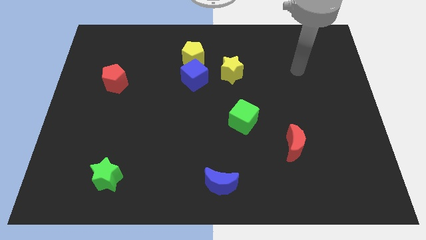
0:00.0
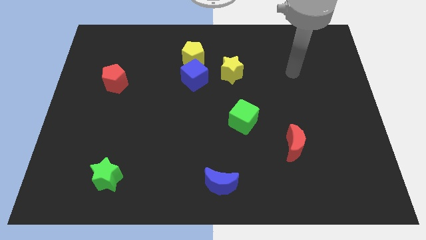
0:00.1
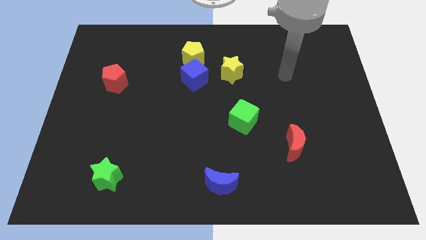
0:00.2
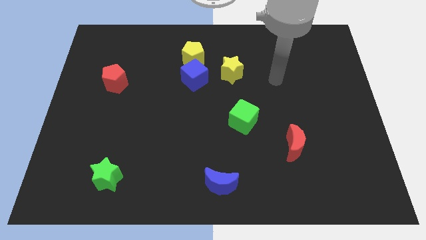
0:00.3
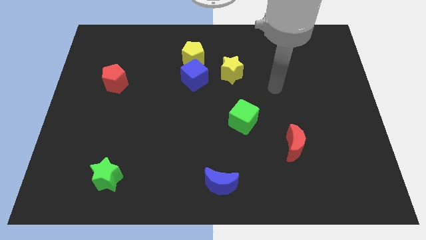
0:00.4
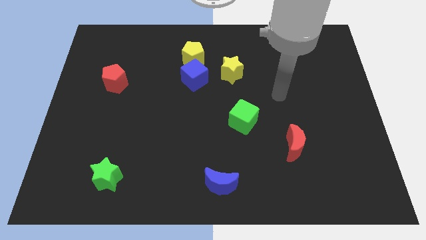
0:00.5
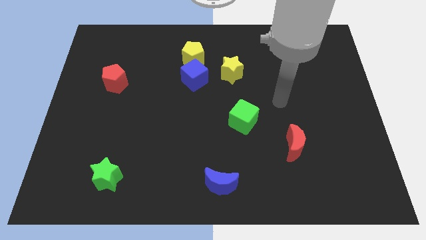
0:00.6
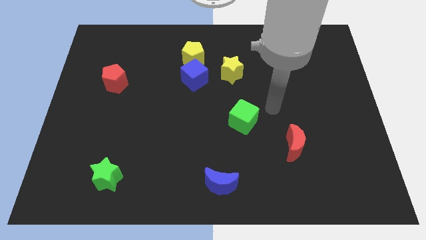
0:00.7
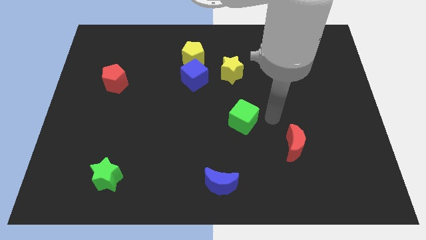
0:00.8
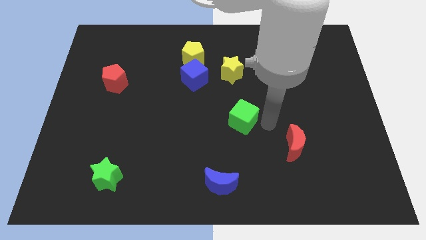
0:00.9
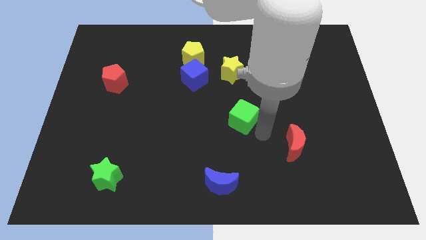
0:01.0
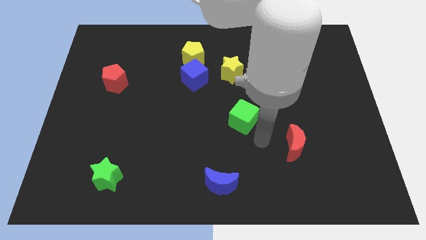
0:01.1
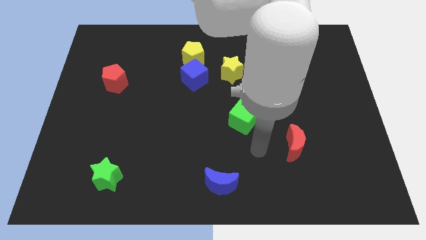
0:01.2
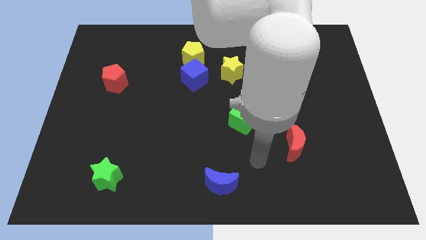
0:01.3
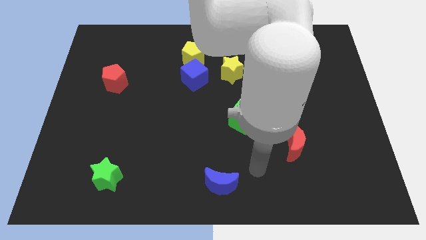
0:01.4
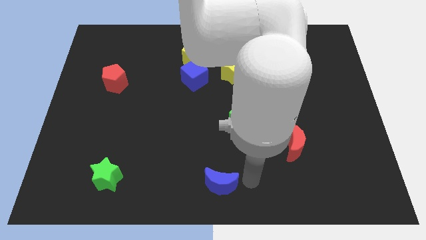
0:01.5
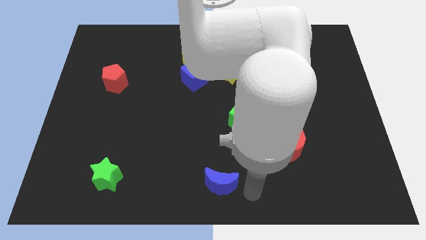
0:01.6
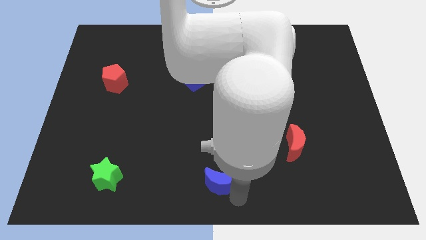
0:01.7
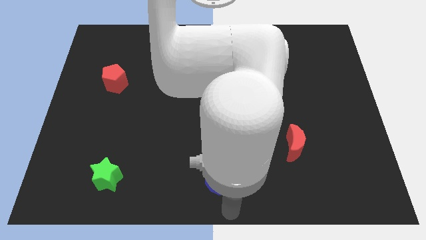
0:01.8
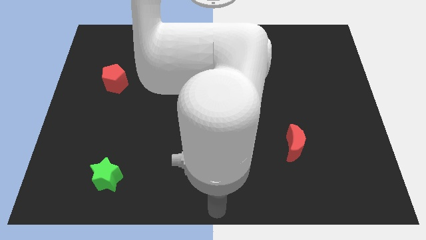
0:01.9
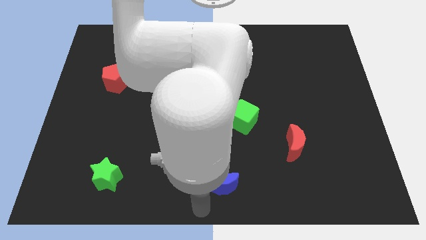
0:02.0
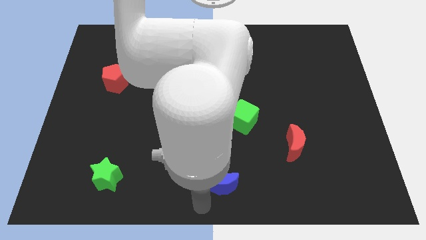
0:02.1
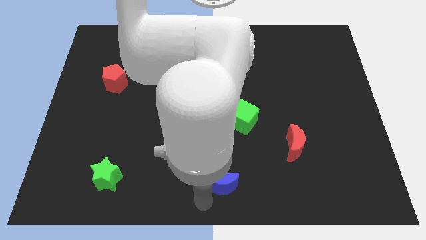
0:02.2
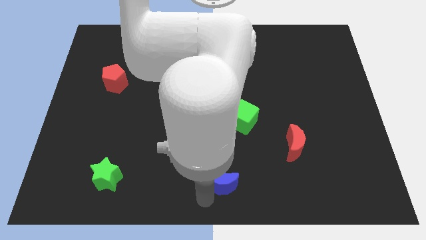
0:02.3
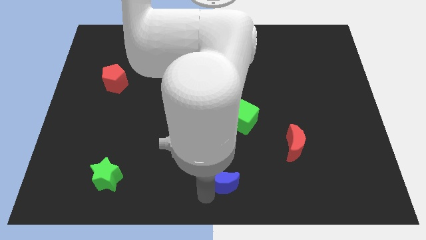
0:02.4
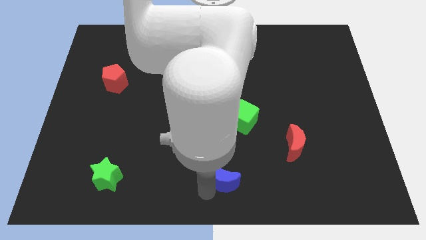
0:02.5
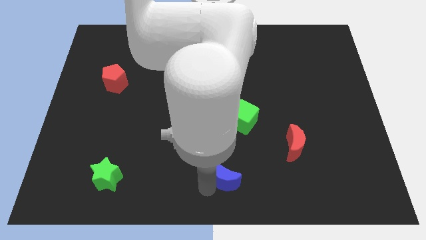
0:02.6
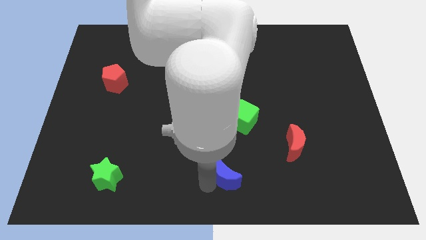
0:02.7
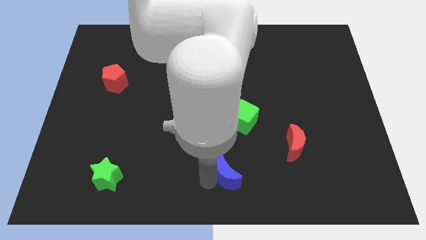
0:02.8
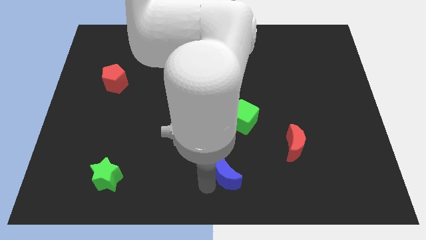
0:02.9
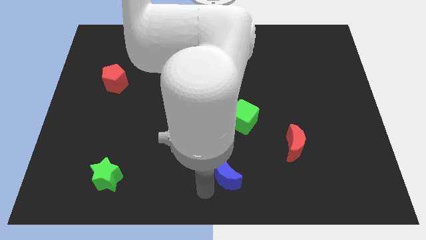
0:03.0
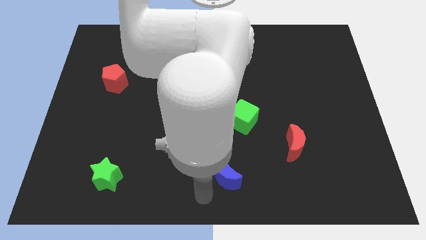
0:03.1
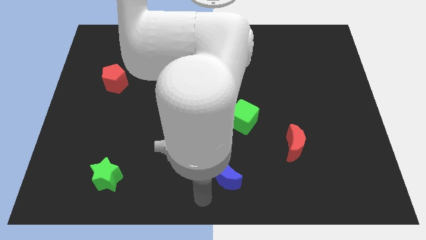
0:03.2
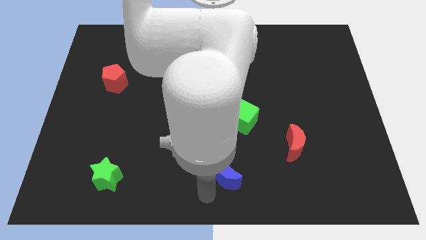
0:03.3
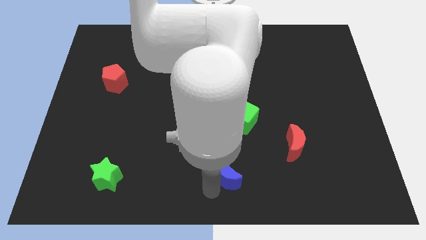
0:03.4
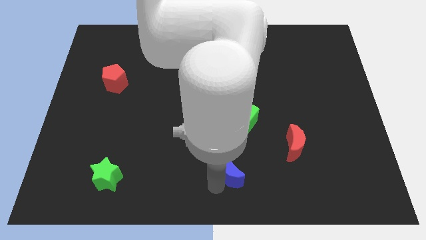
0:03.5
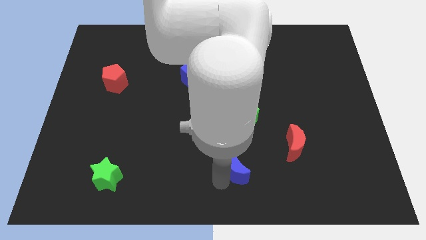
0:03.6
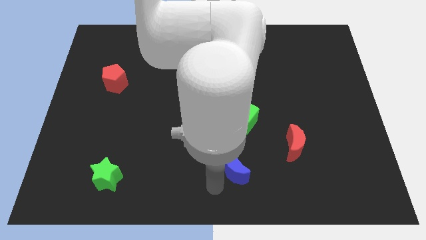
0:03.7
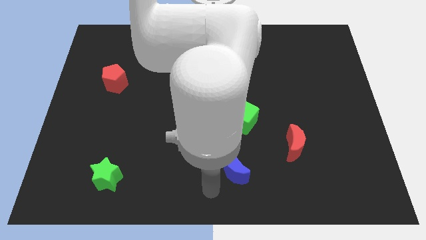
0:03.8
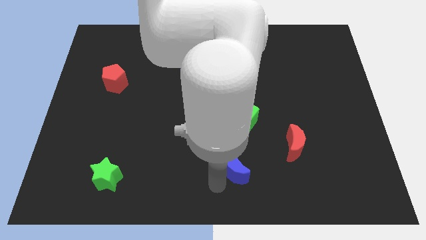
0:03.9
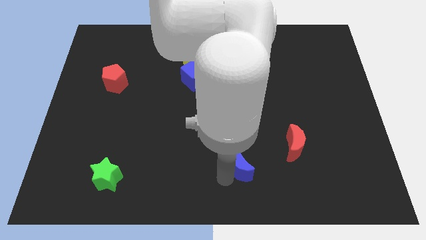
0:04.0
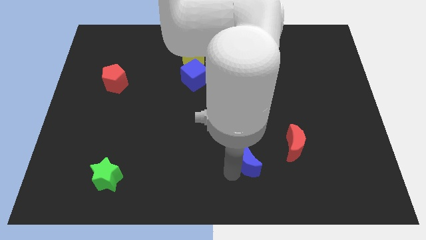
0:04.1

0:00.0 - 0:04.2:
slightly move the blue moon up and right

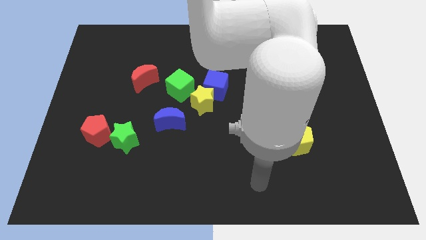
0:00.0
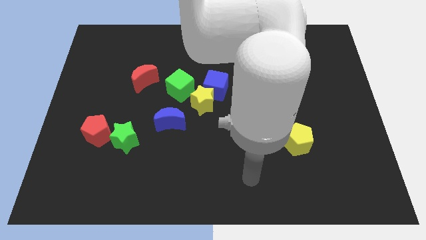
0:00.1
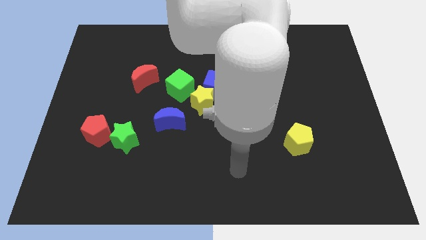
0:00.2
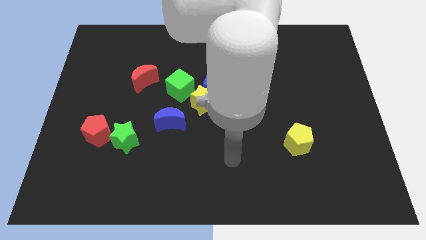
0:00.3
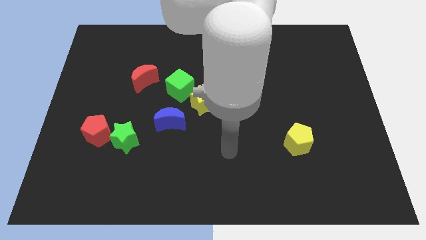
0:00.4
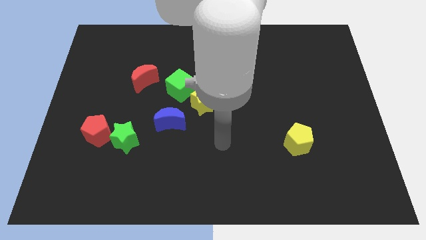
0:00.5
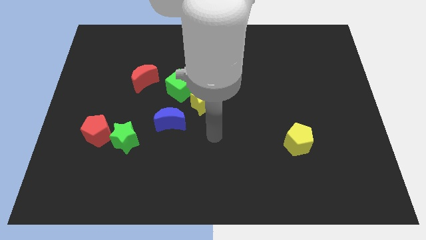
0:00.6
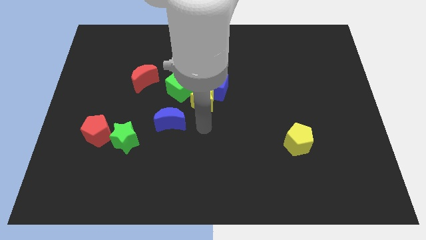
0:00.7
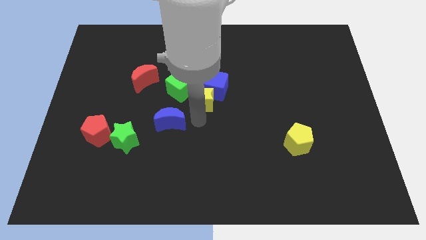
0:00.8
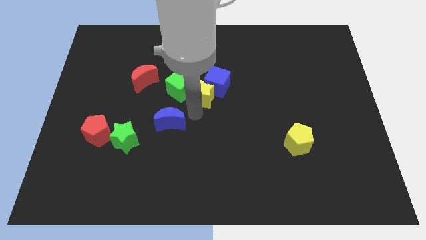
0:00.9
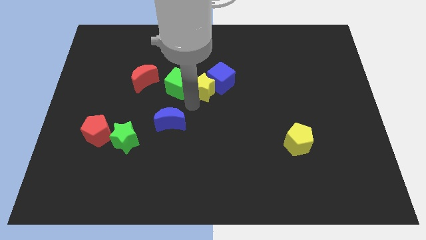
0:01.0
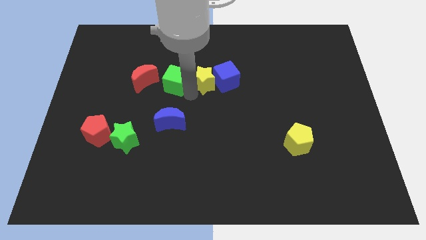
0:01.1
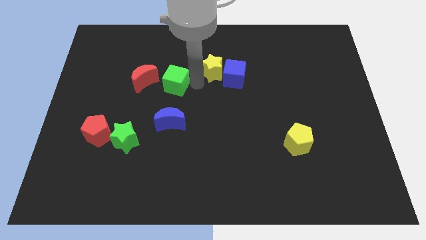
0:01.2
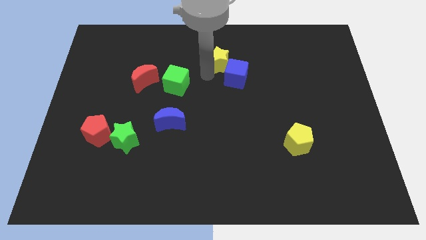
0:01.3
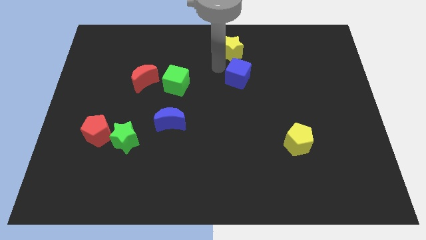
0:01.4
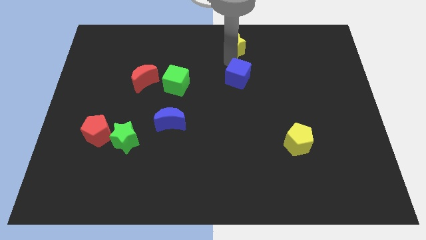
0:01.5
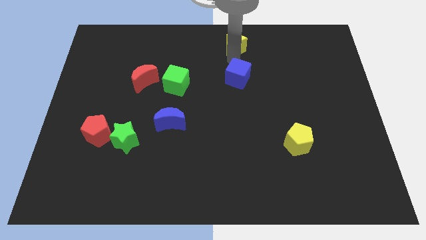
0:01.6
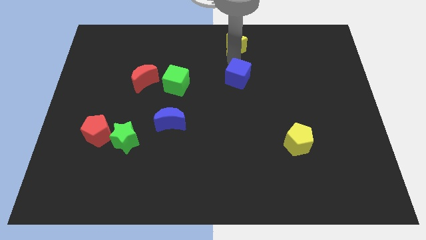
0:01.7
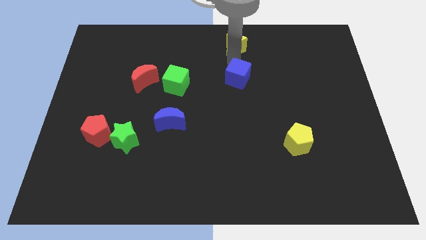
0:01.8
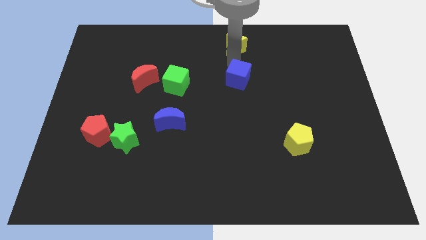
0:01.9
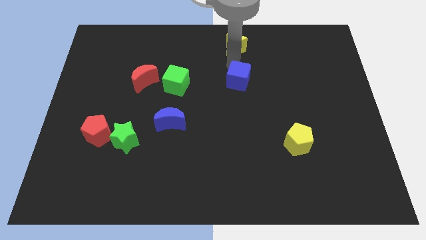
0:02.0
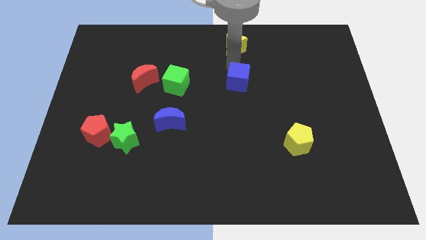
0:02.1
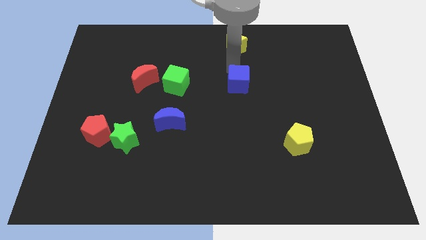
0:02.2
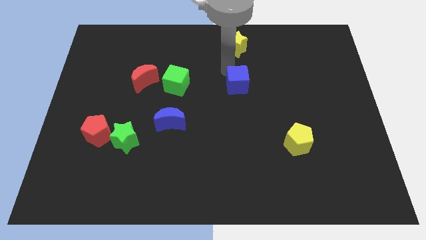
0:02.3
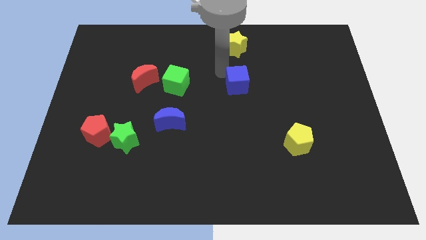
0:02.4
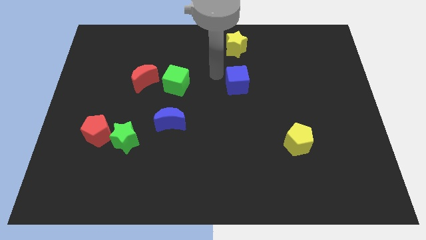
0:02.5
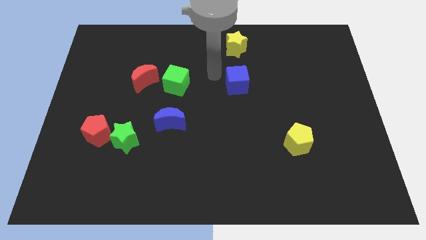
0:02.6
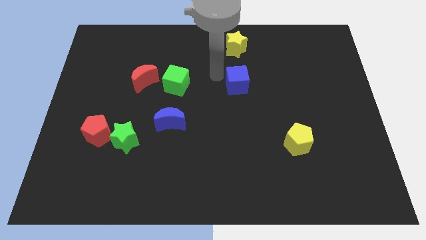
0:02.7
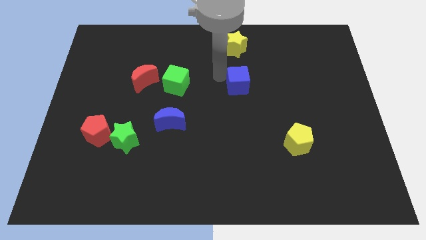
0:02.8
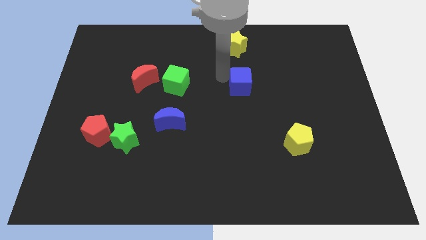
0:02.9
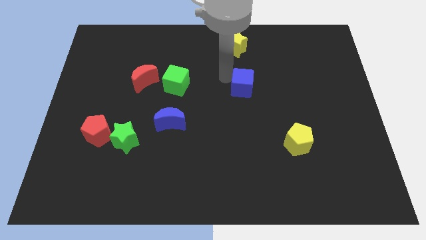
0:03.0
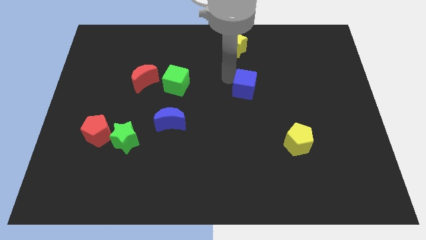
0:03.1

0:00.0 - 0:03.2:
slightly slide the blue cube to the right

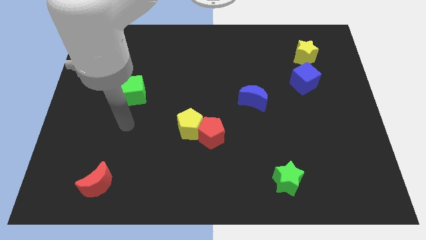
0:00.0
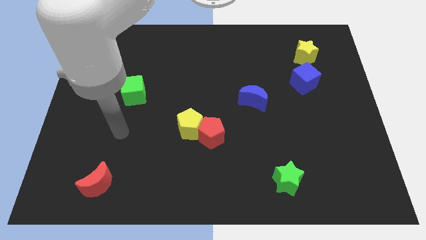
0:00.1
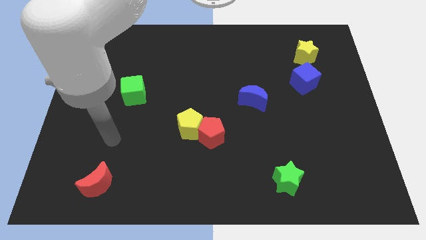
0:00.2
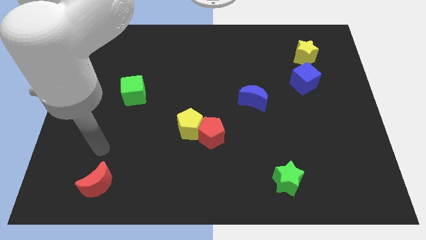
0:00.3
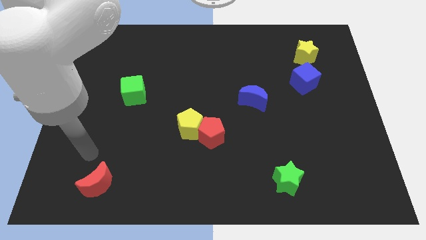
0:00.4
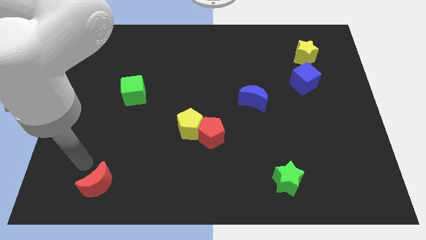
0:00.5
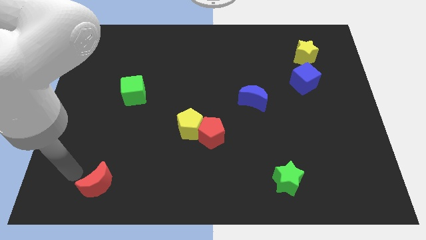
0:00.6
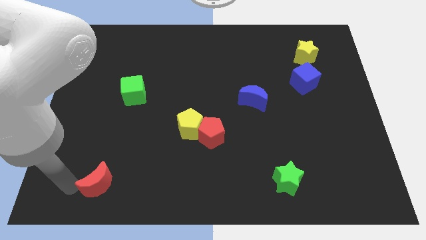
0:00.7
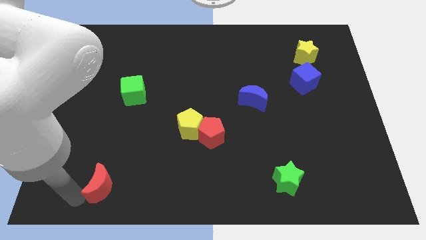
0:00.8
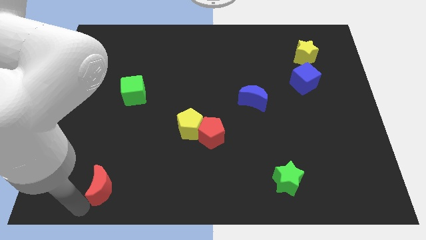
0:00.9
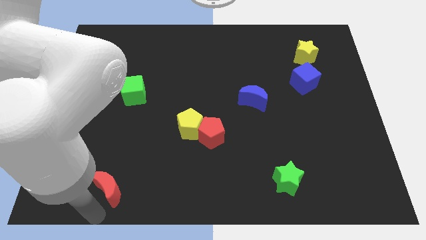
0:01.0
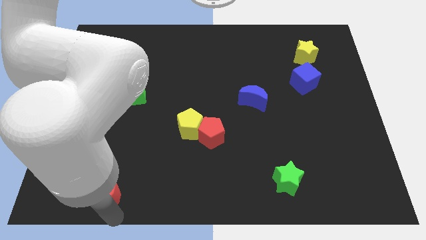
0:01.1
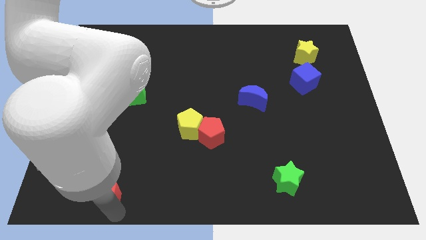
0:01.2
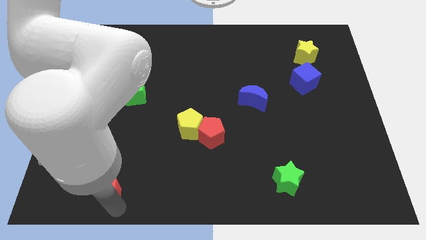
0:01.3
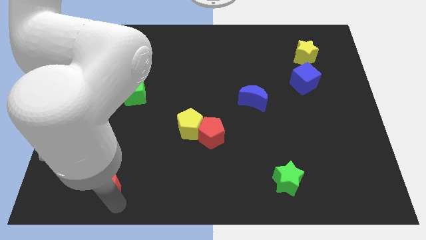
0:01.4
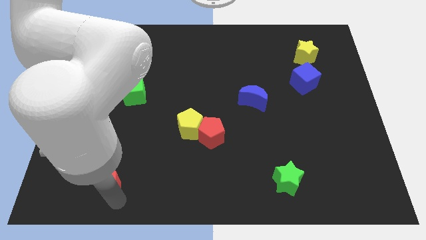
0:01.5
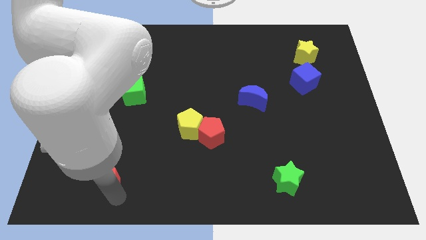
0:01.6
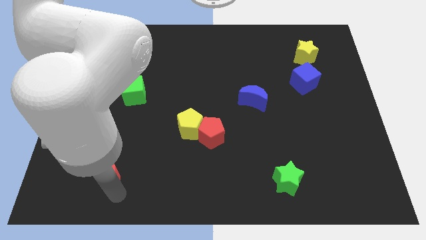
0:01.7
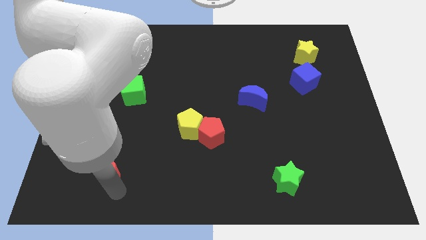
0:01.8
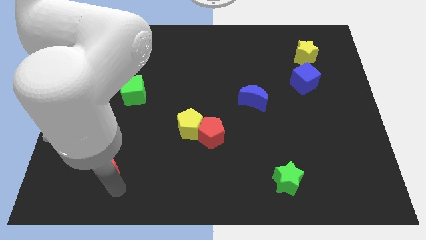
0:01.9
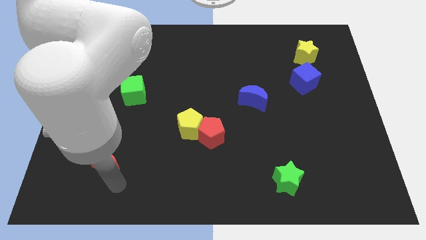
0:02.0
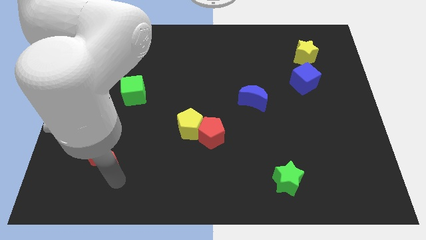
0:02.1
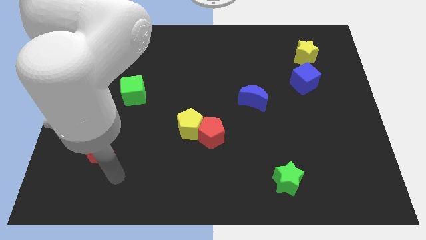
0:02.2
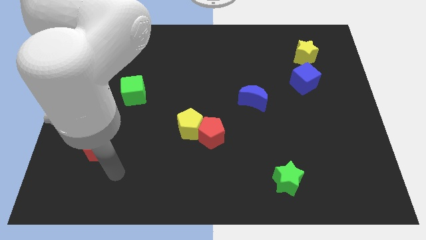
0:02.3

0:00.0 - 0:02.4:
push the red moon upwards a bit
